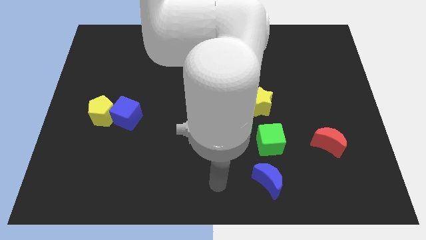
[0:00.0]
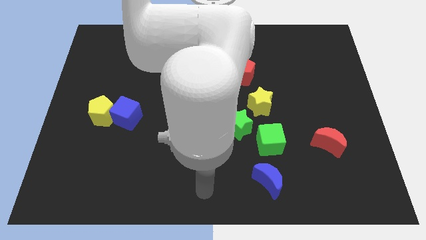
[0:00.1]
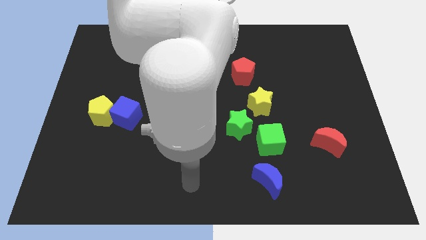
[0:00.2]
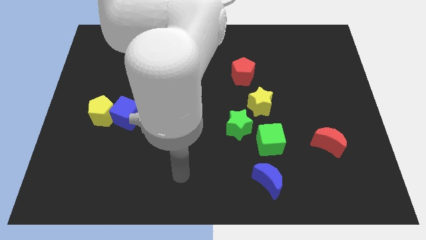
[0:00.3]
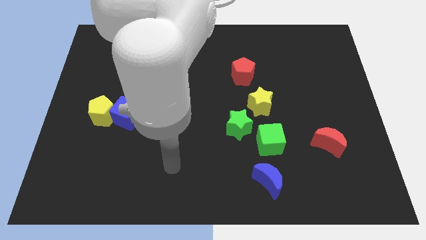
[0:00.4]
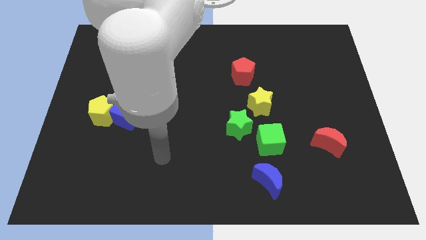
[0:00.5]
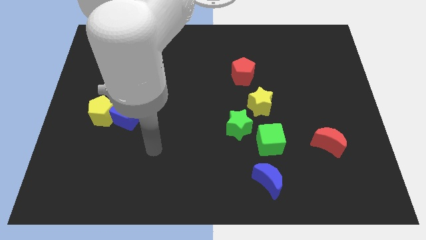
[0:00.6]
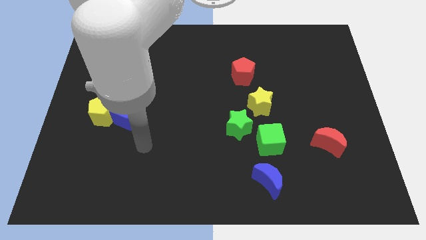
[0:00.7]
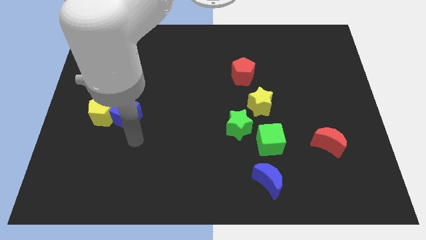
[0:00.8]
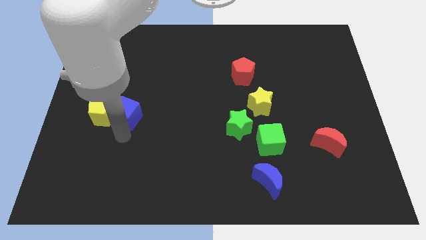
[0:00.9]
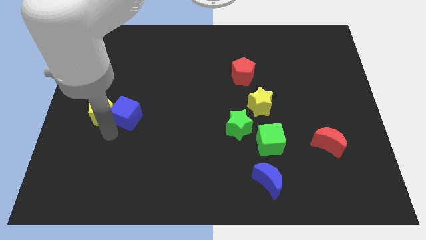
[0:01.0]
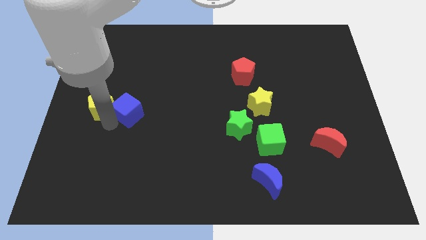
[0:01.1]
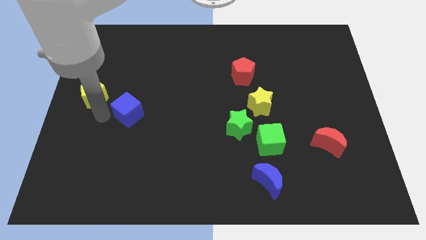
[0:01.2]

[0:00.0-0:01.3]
pull the blue cube apart from the yellow pentagon

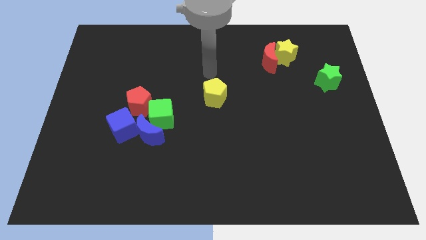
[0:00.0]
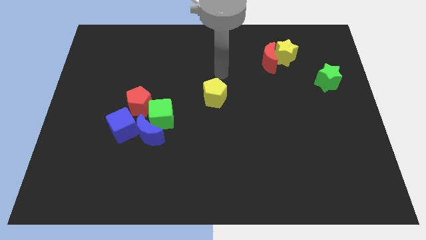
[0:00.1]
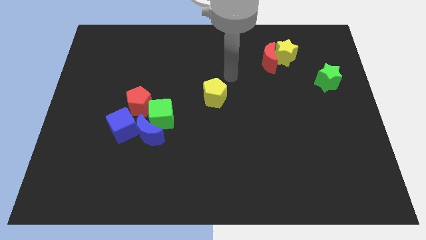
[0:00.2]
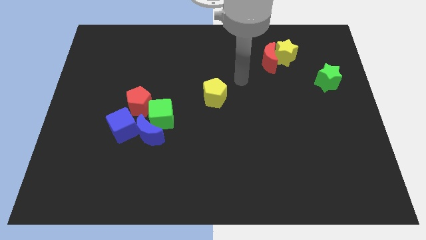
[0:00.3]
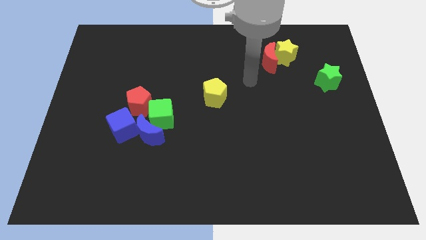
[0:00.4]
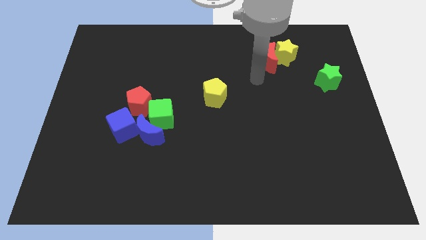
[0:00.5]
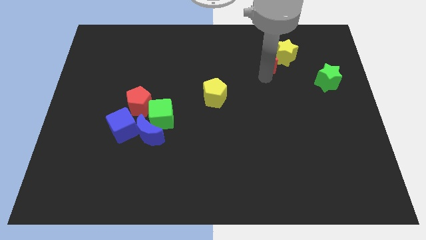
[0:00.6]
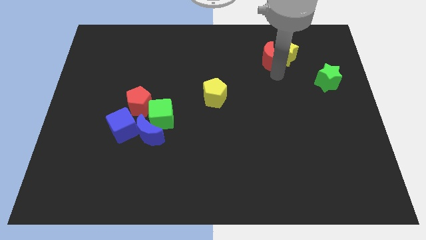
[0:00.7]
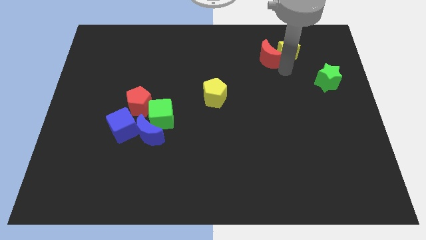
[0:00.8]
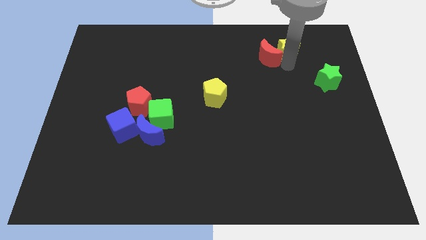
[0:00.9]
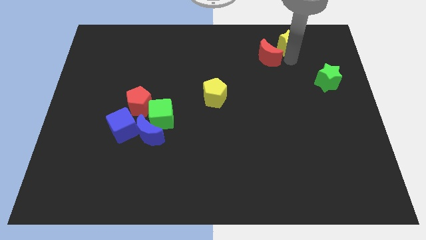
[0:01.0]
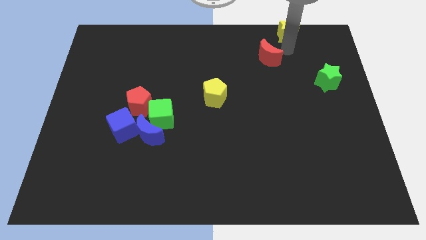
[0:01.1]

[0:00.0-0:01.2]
move the red moon away from the yellow star

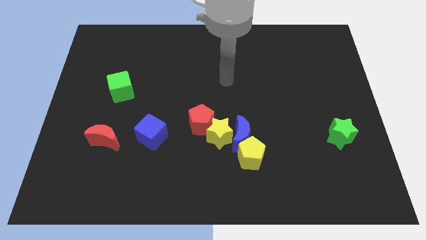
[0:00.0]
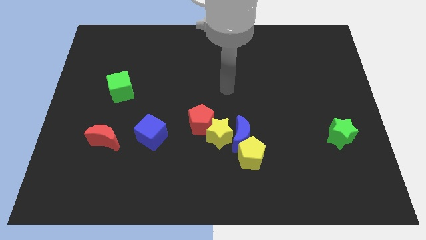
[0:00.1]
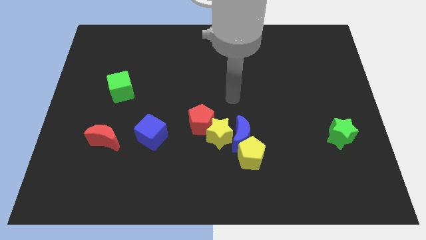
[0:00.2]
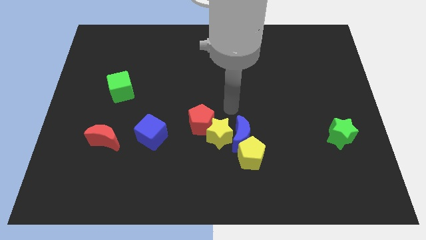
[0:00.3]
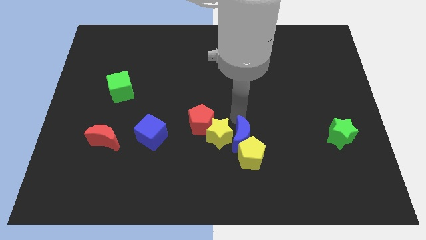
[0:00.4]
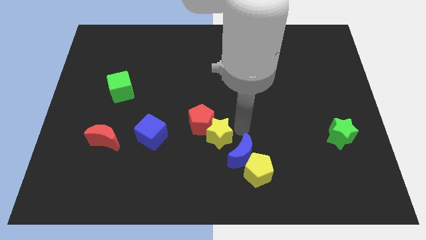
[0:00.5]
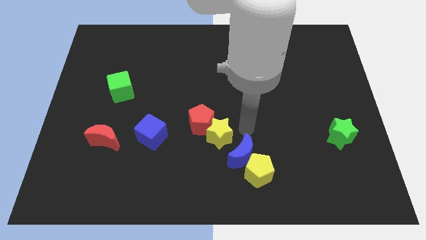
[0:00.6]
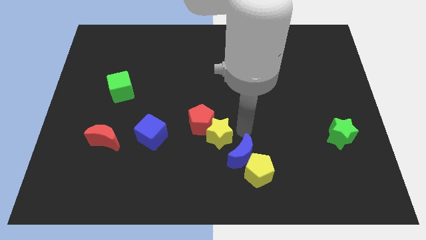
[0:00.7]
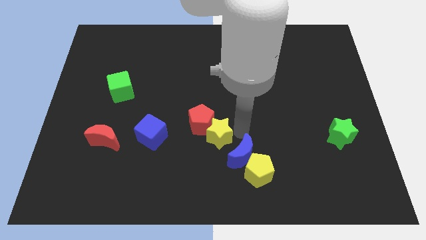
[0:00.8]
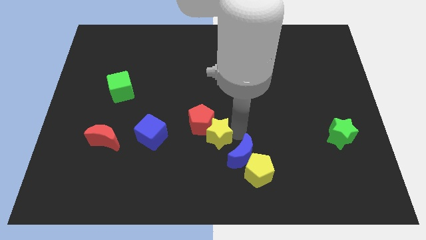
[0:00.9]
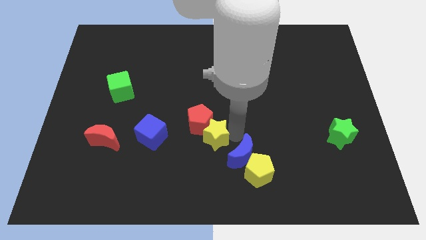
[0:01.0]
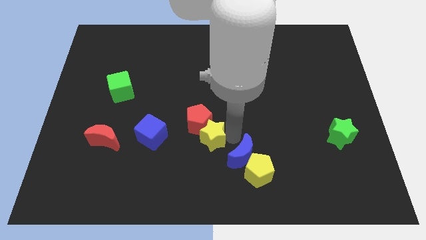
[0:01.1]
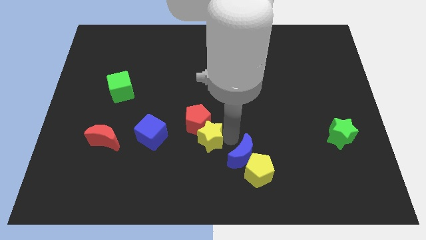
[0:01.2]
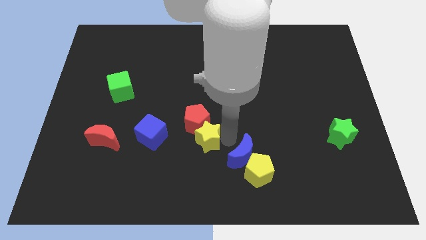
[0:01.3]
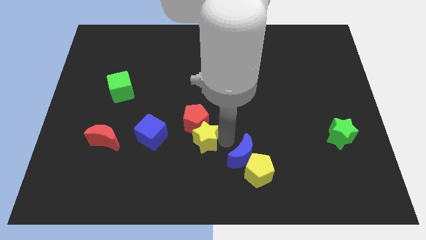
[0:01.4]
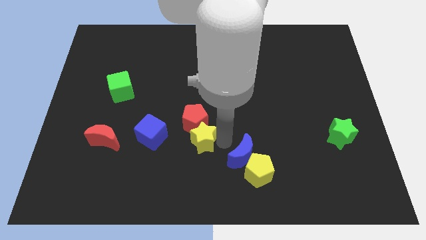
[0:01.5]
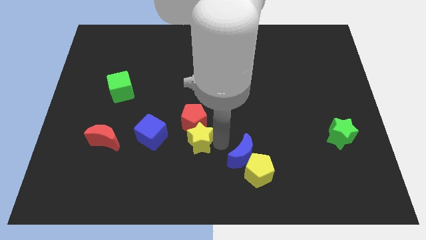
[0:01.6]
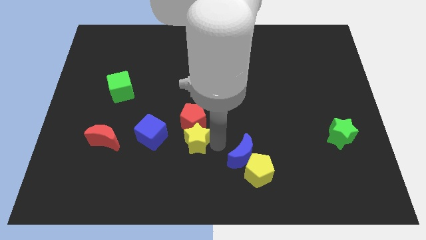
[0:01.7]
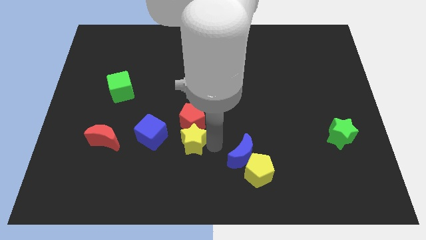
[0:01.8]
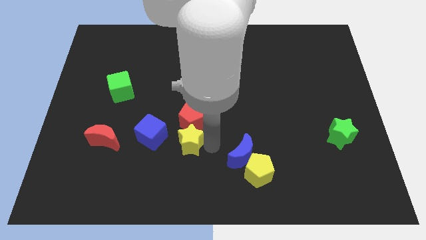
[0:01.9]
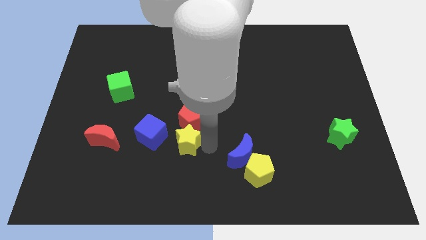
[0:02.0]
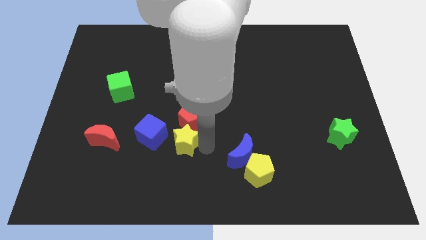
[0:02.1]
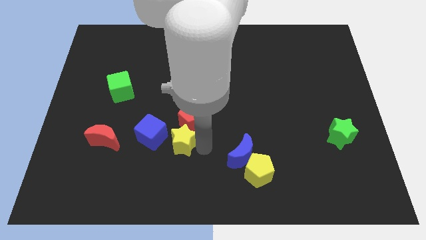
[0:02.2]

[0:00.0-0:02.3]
move the yellow star away from the blue moon, red pentagon, and yellow pentagon

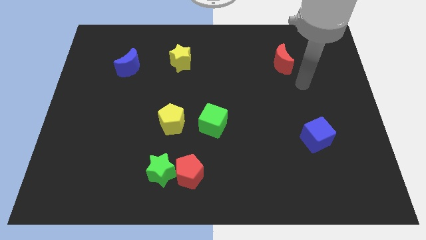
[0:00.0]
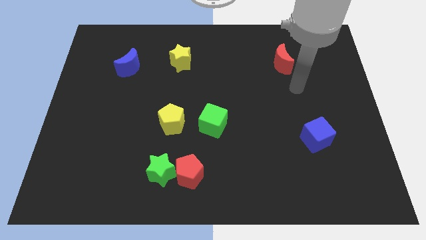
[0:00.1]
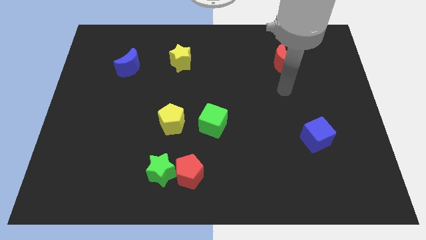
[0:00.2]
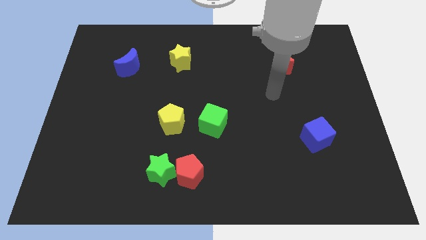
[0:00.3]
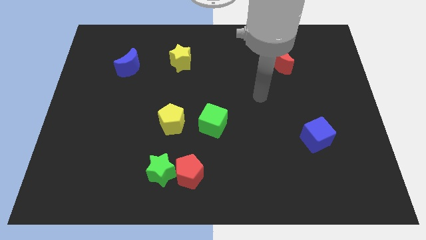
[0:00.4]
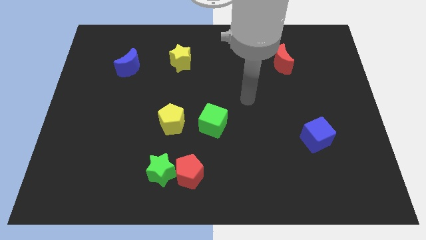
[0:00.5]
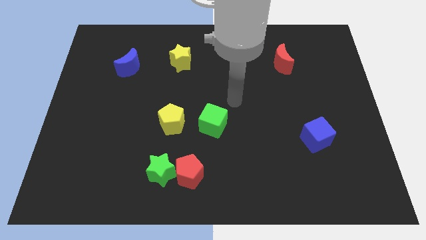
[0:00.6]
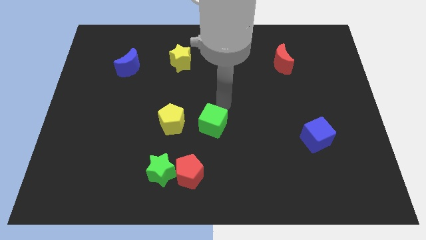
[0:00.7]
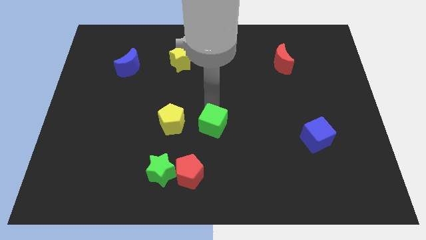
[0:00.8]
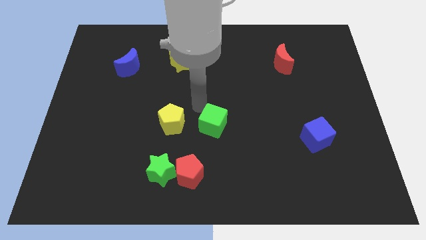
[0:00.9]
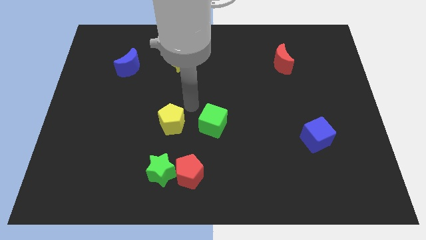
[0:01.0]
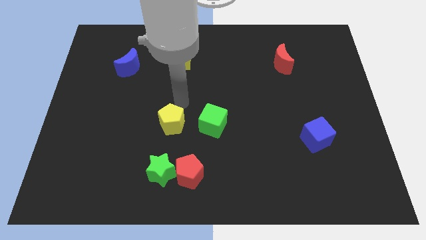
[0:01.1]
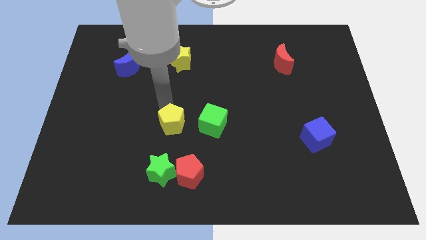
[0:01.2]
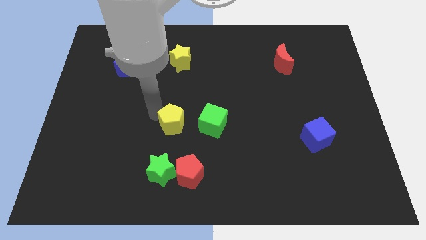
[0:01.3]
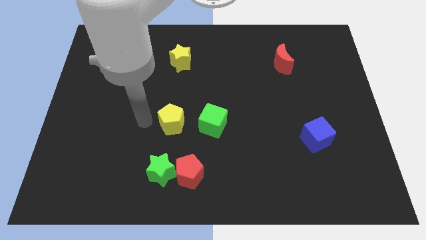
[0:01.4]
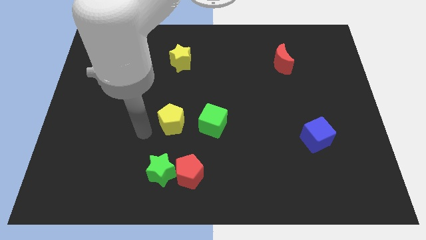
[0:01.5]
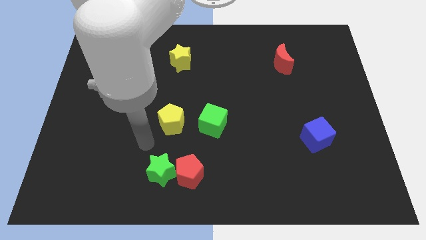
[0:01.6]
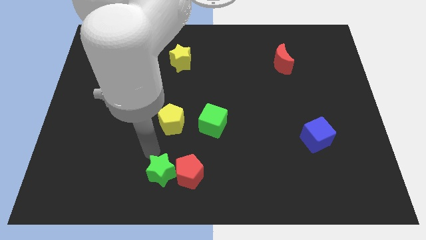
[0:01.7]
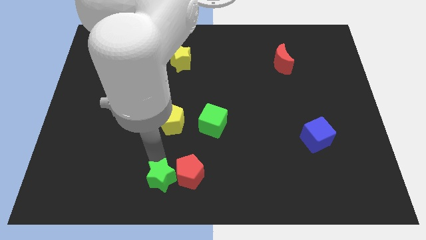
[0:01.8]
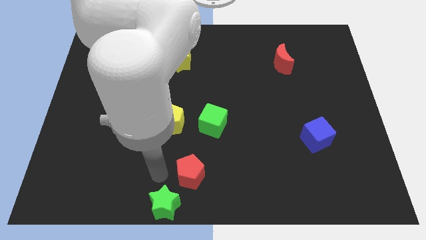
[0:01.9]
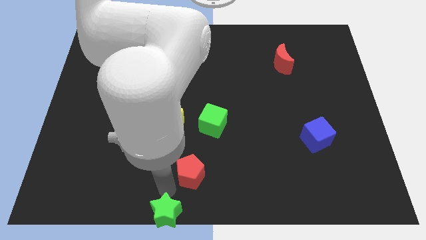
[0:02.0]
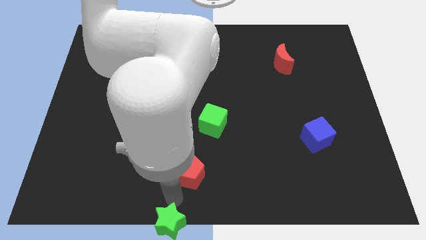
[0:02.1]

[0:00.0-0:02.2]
move the red pentagon away from the green star

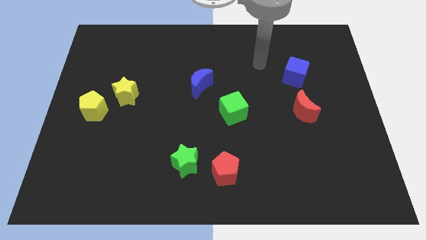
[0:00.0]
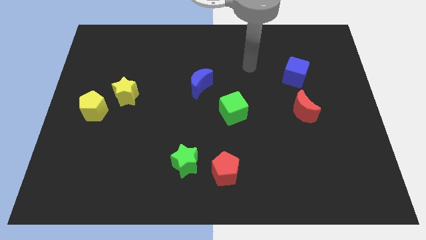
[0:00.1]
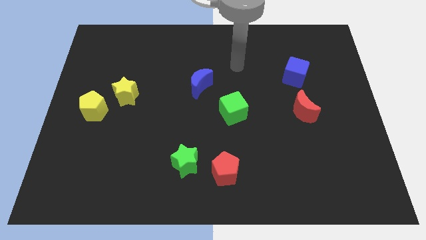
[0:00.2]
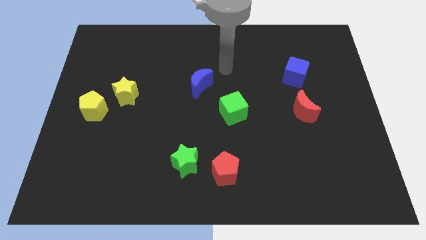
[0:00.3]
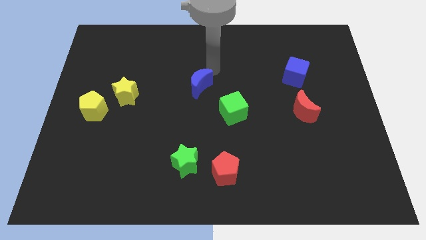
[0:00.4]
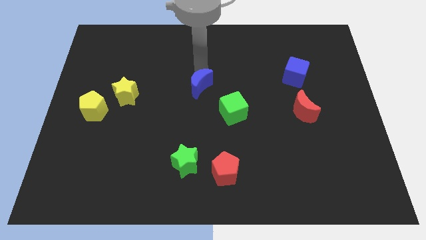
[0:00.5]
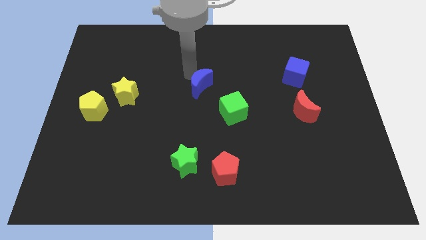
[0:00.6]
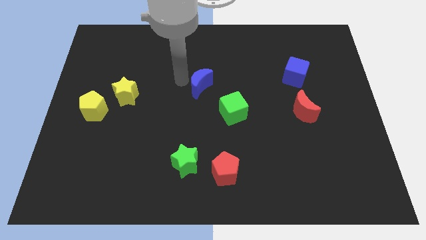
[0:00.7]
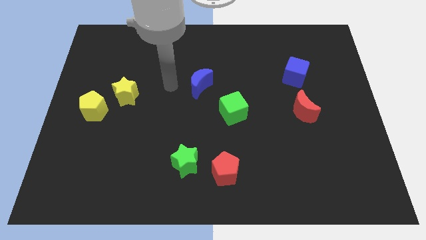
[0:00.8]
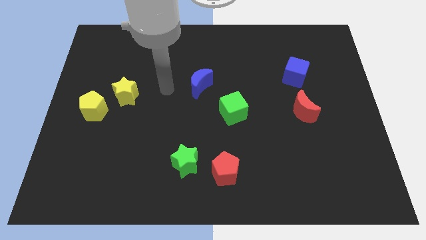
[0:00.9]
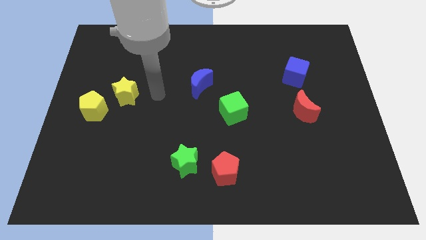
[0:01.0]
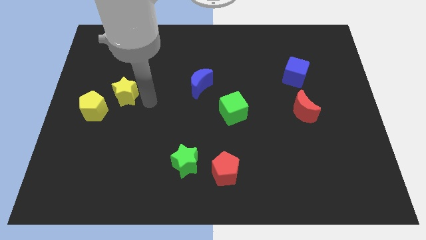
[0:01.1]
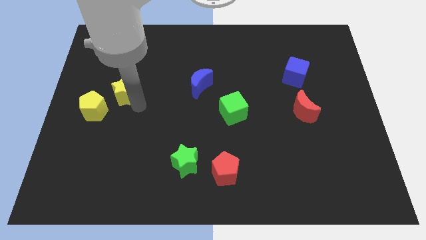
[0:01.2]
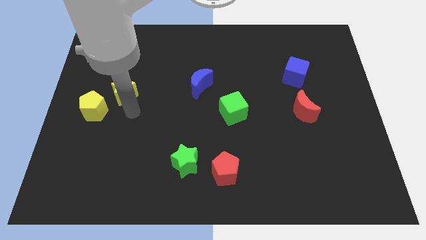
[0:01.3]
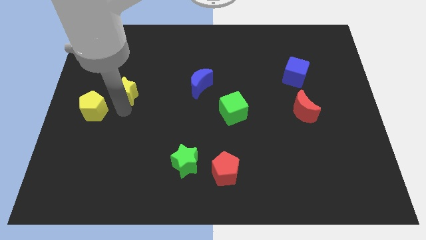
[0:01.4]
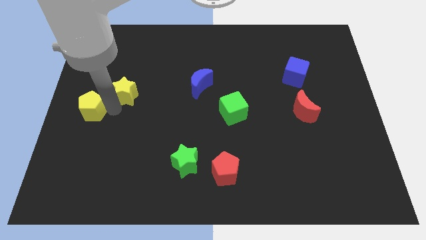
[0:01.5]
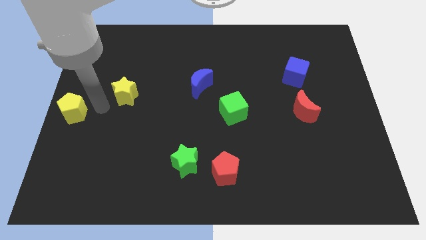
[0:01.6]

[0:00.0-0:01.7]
separate the yellow star from the yellow pentagon

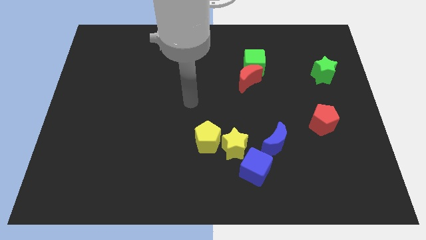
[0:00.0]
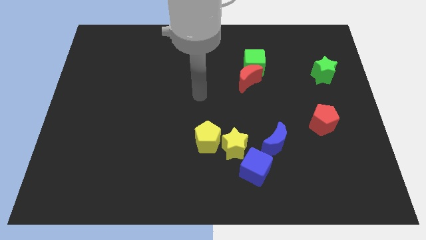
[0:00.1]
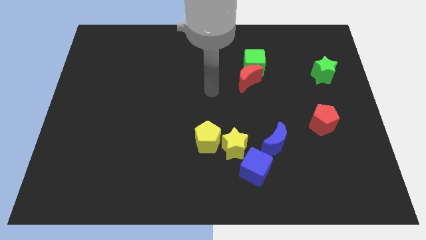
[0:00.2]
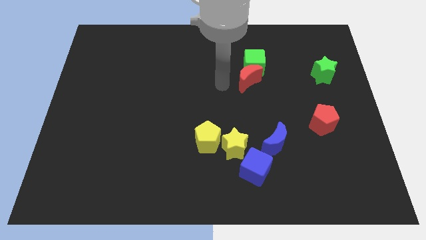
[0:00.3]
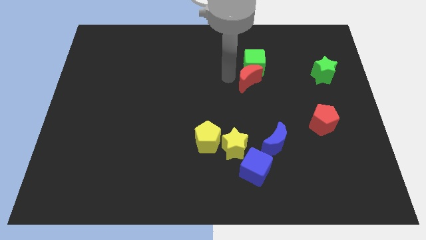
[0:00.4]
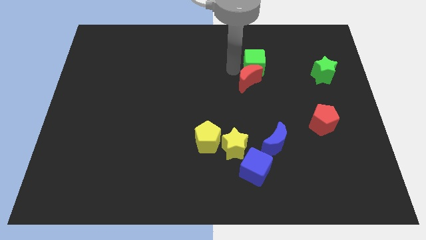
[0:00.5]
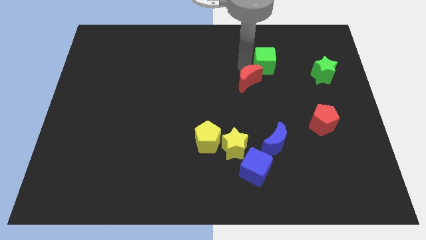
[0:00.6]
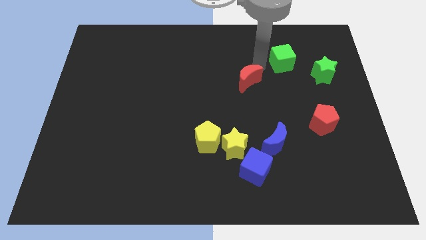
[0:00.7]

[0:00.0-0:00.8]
pull the red moon apart from the green cube
